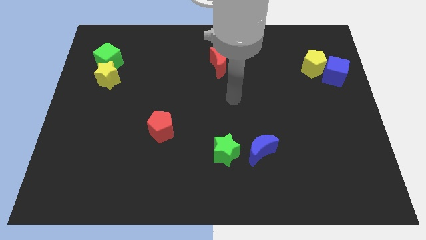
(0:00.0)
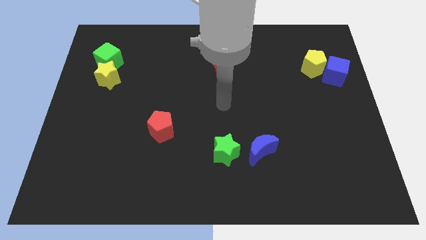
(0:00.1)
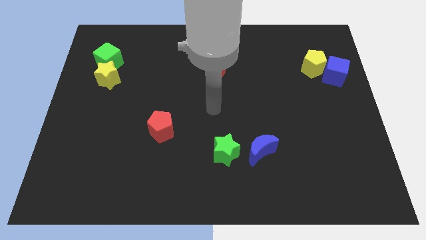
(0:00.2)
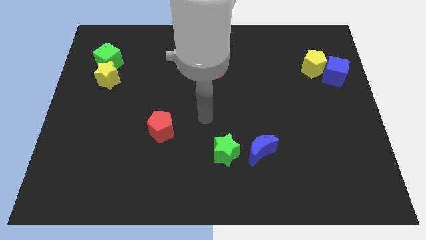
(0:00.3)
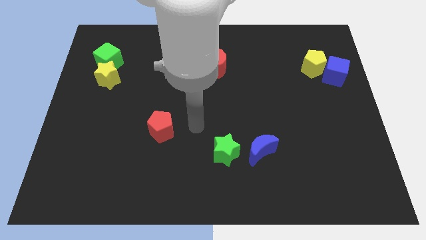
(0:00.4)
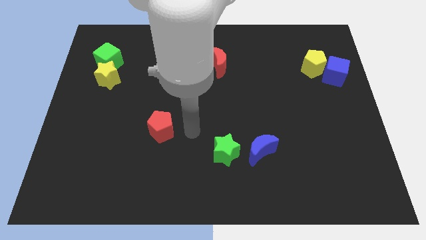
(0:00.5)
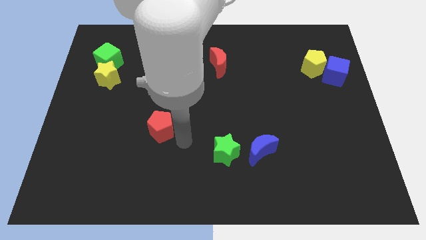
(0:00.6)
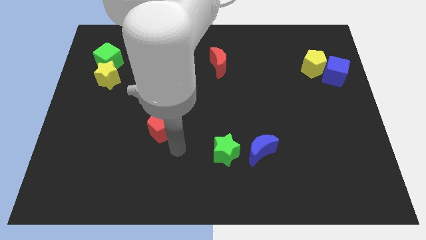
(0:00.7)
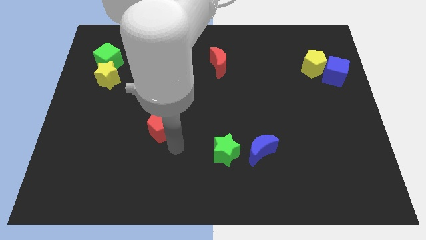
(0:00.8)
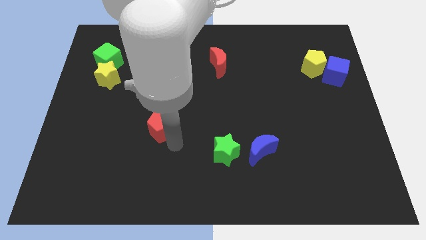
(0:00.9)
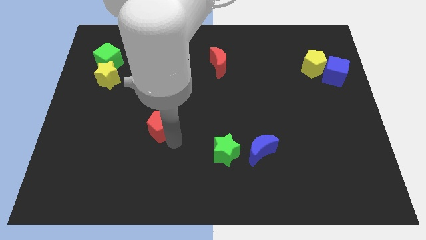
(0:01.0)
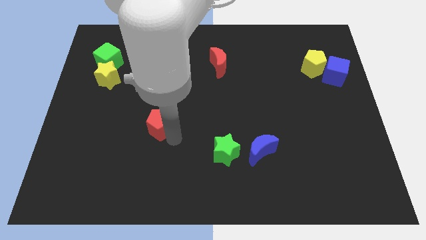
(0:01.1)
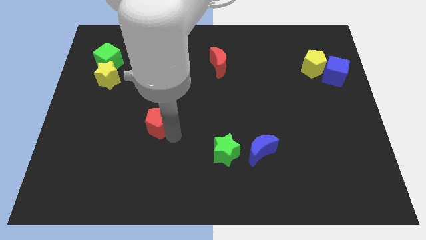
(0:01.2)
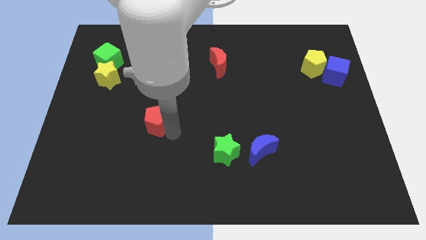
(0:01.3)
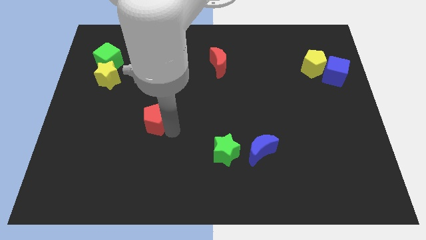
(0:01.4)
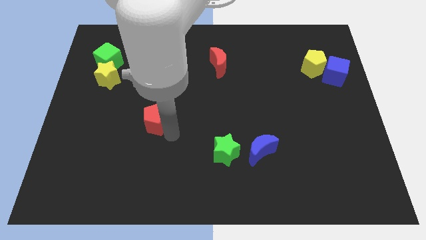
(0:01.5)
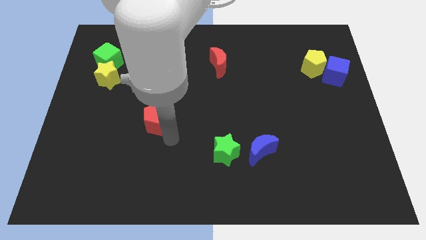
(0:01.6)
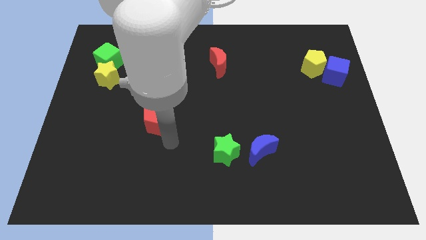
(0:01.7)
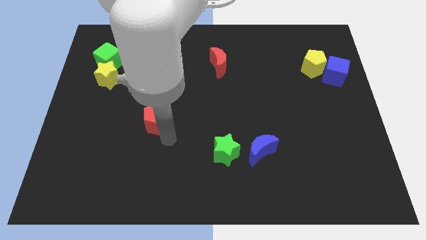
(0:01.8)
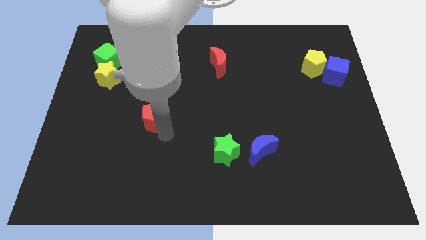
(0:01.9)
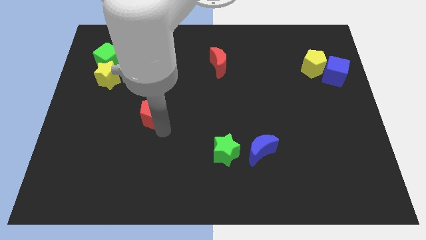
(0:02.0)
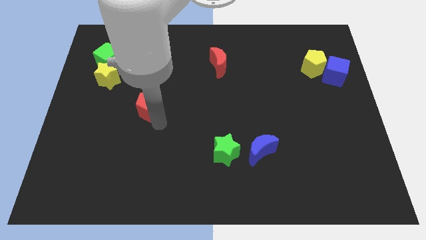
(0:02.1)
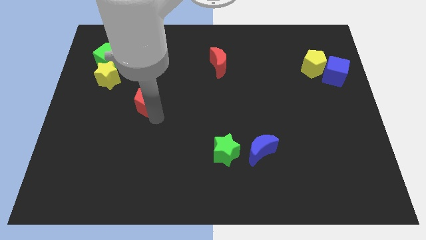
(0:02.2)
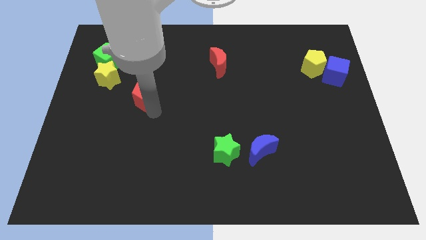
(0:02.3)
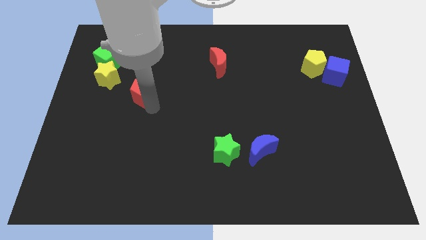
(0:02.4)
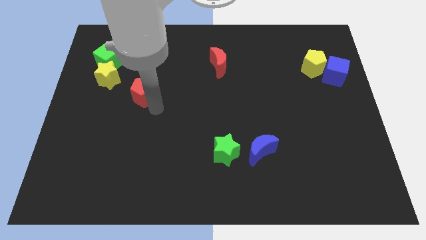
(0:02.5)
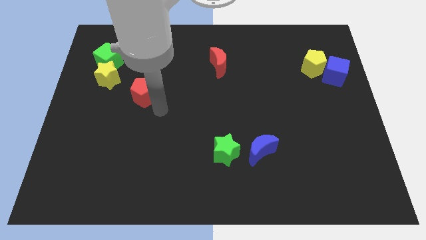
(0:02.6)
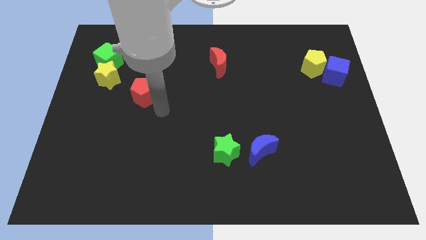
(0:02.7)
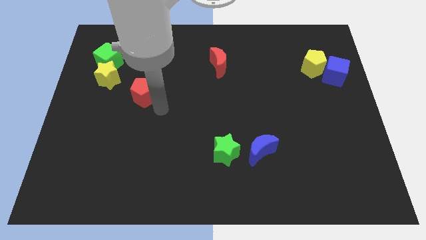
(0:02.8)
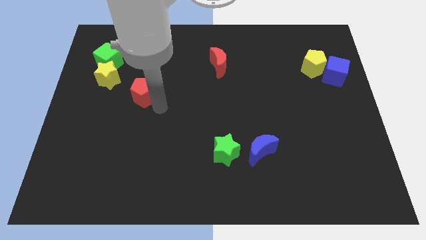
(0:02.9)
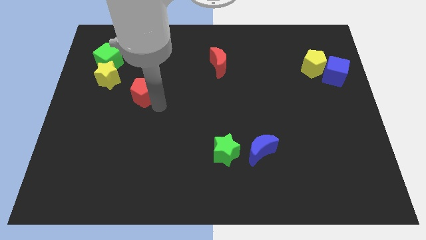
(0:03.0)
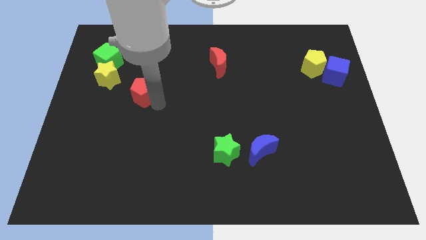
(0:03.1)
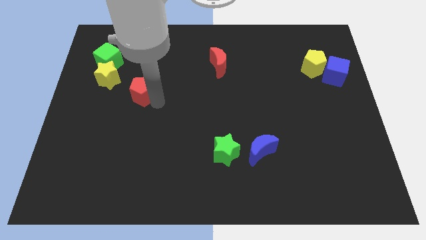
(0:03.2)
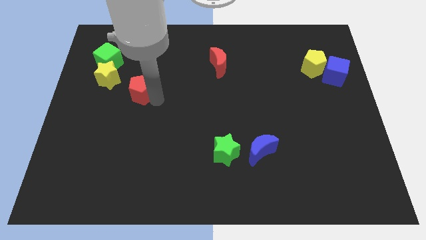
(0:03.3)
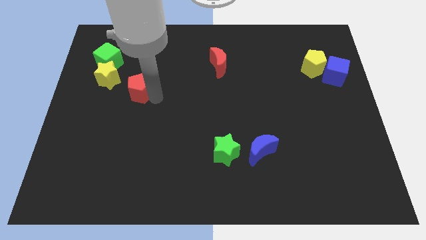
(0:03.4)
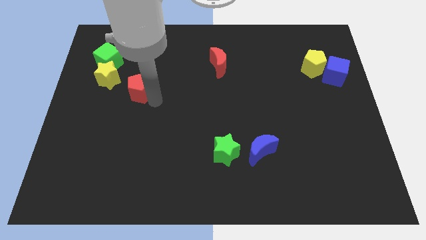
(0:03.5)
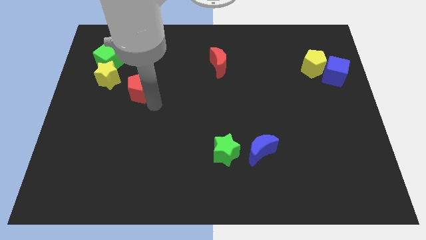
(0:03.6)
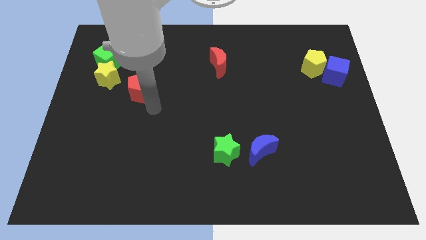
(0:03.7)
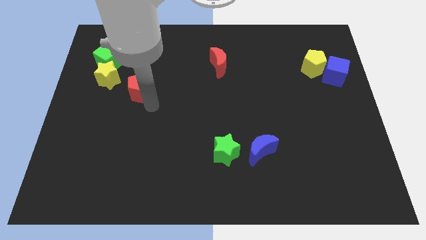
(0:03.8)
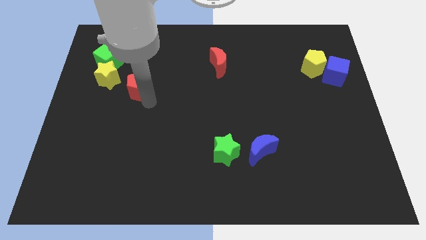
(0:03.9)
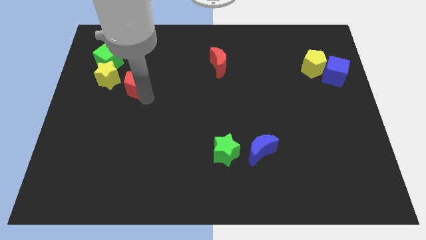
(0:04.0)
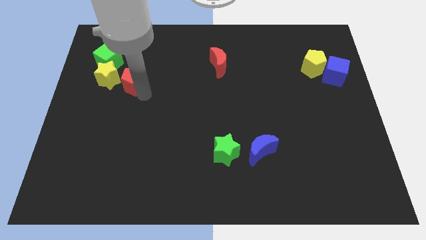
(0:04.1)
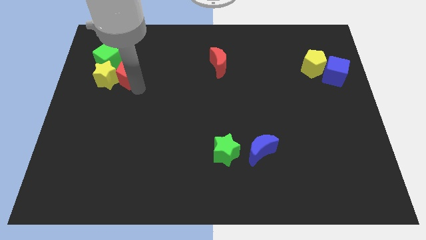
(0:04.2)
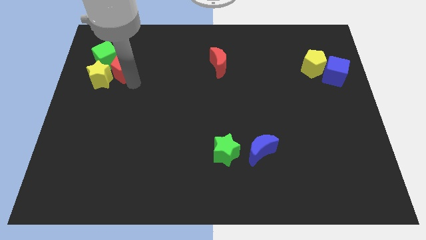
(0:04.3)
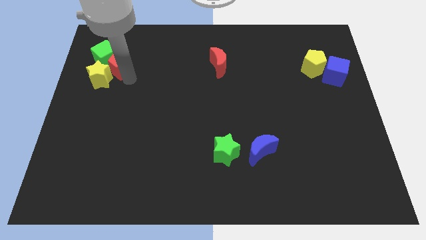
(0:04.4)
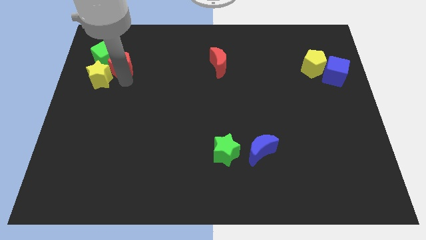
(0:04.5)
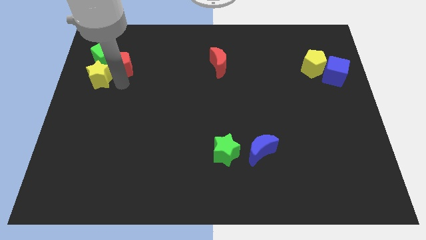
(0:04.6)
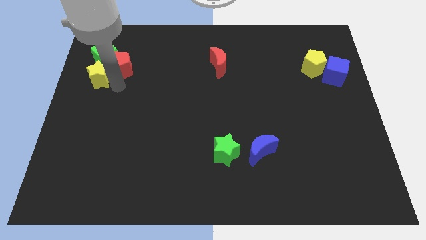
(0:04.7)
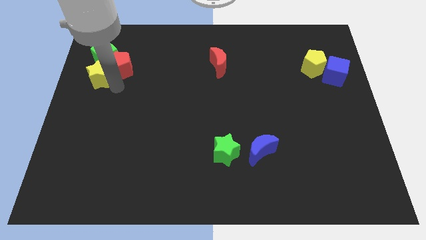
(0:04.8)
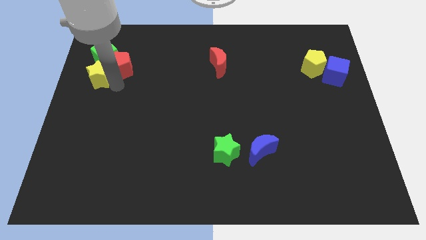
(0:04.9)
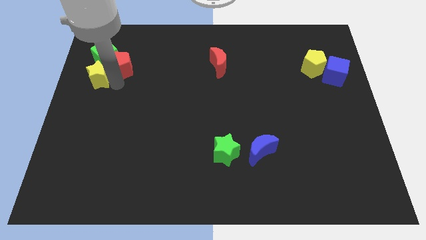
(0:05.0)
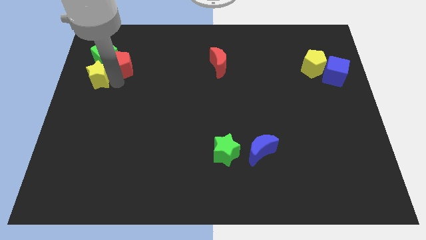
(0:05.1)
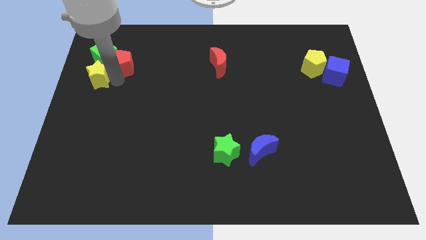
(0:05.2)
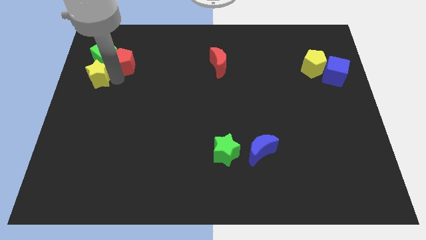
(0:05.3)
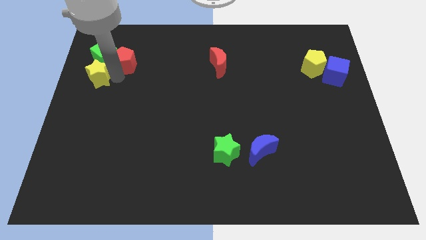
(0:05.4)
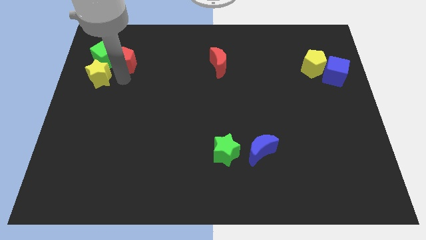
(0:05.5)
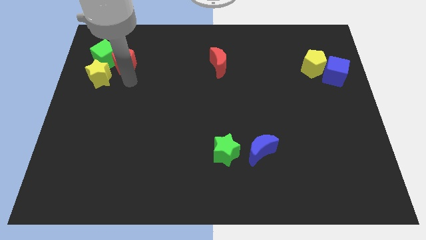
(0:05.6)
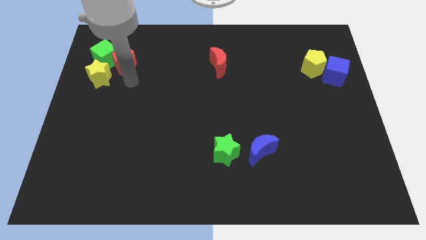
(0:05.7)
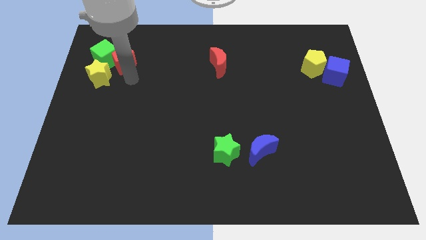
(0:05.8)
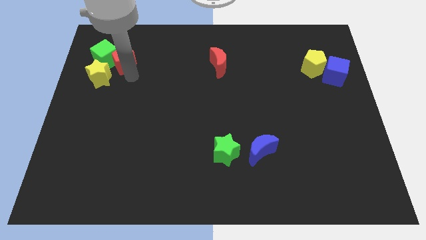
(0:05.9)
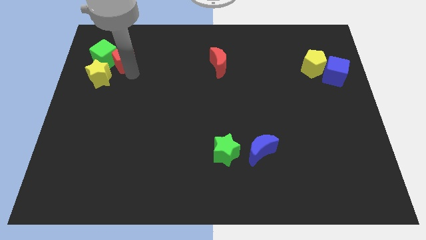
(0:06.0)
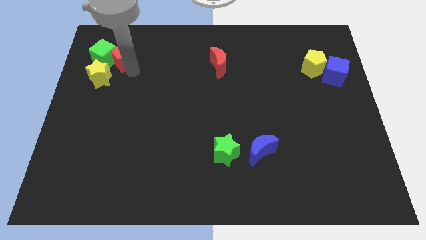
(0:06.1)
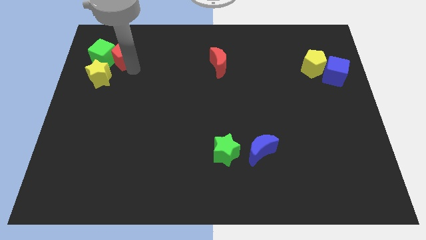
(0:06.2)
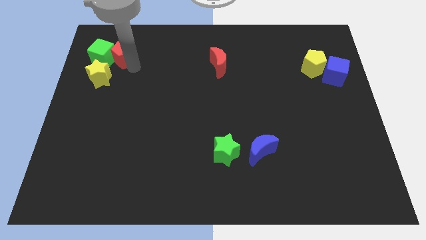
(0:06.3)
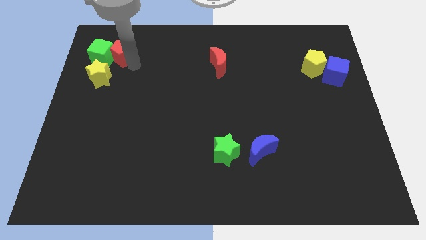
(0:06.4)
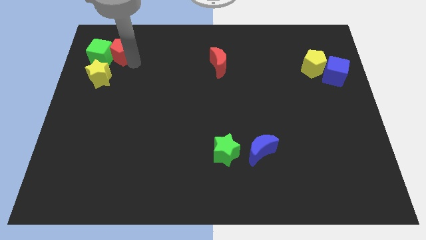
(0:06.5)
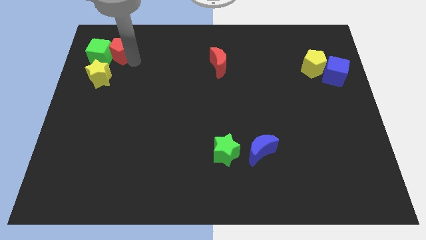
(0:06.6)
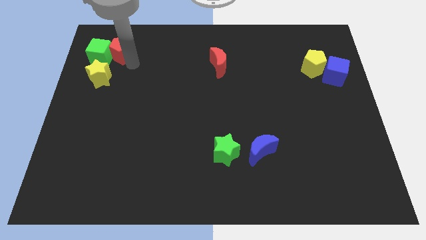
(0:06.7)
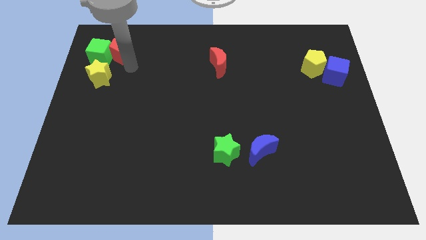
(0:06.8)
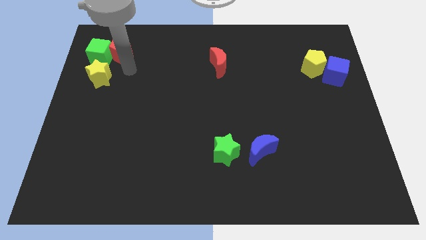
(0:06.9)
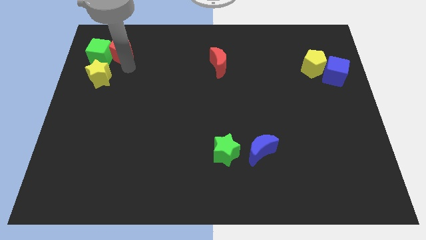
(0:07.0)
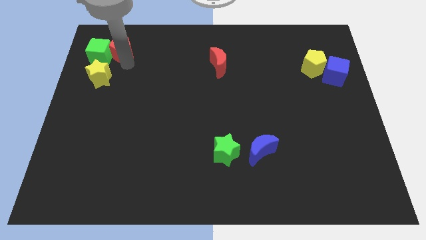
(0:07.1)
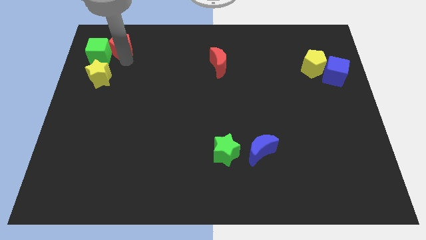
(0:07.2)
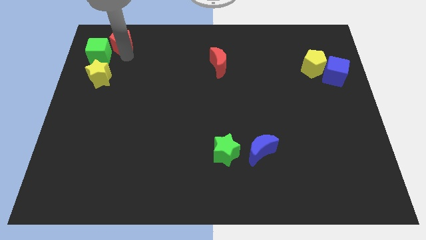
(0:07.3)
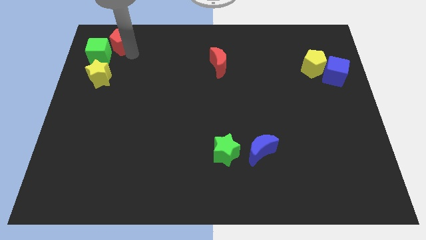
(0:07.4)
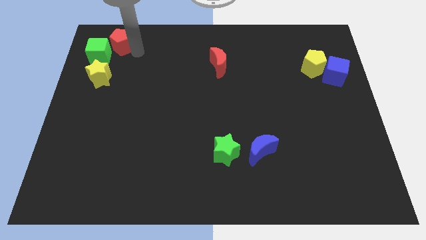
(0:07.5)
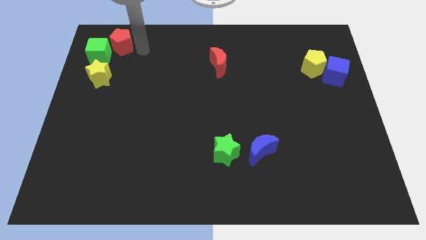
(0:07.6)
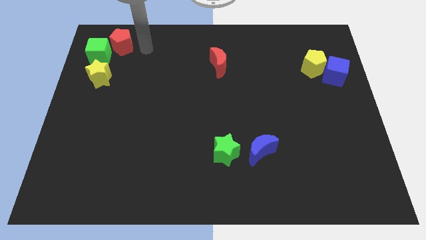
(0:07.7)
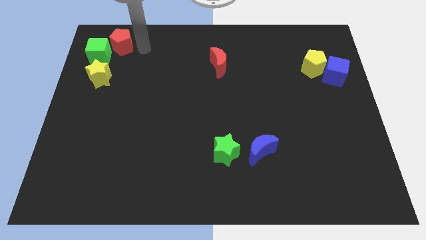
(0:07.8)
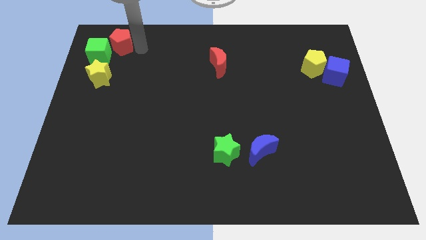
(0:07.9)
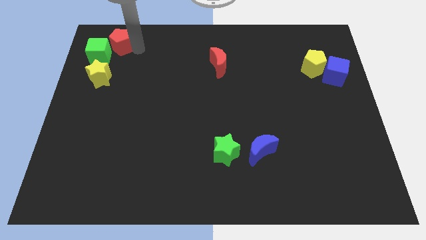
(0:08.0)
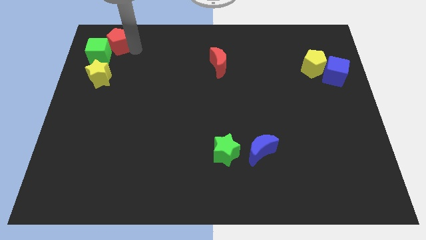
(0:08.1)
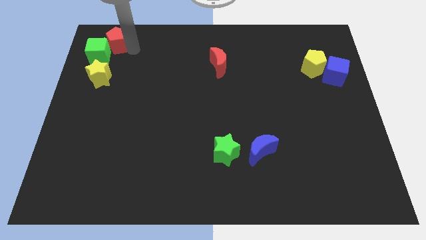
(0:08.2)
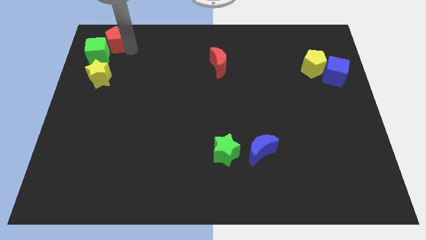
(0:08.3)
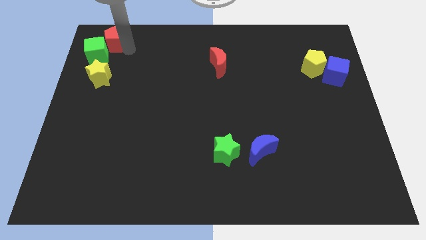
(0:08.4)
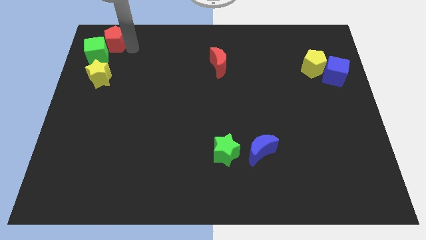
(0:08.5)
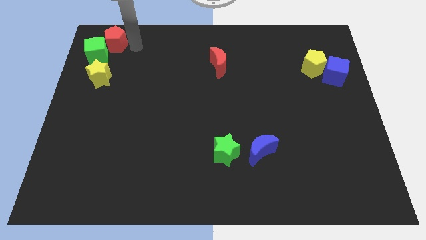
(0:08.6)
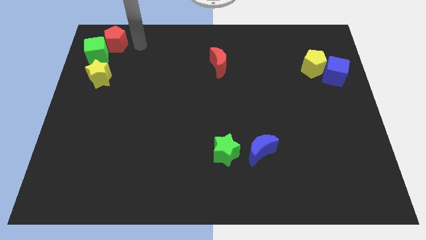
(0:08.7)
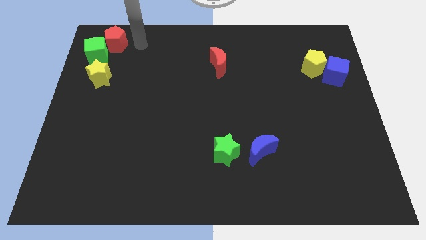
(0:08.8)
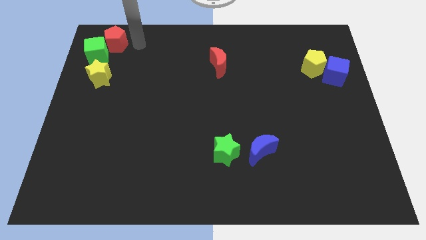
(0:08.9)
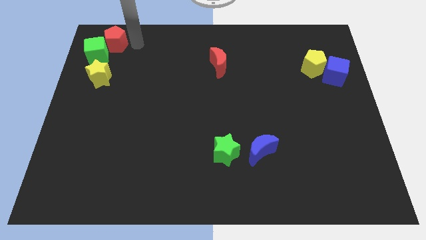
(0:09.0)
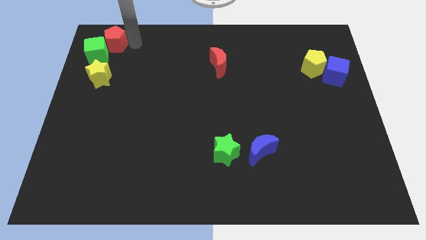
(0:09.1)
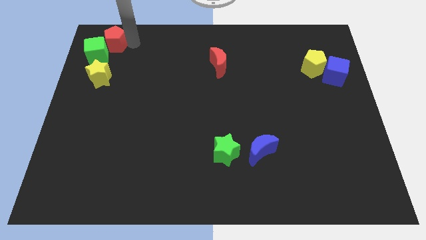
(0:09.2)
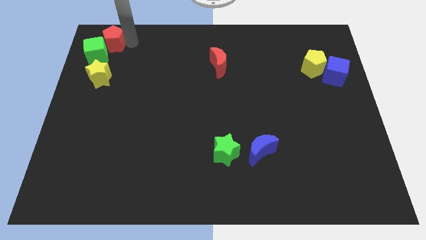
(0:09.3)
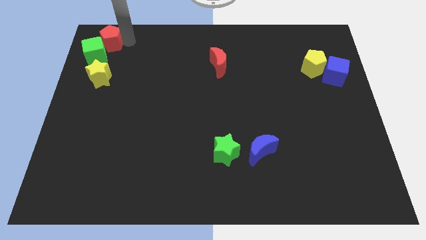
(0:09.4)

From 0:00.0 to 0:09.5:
slide the red pentagon to the top left corner
